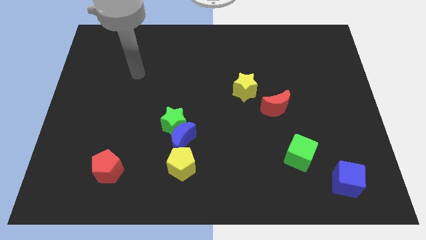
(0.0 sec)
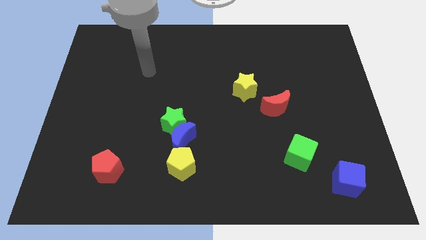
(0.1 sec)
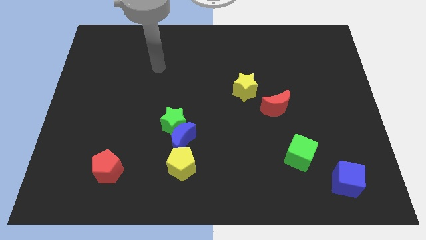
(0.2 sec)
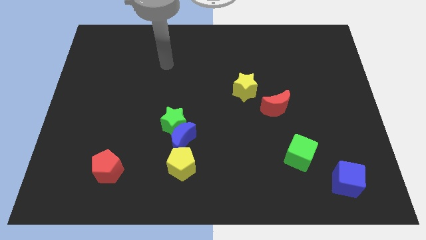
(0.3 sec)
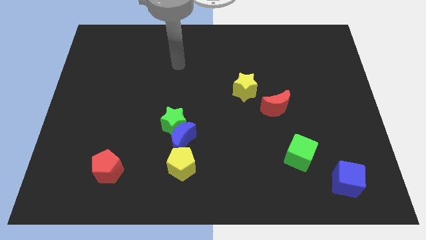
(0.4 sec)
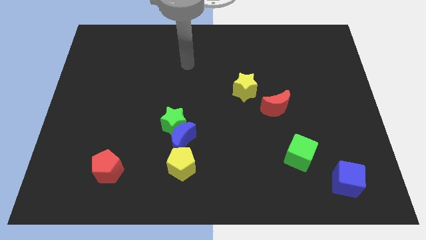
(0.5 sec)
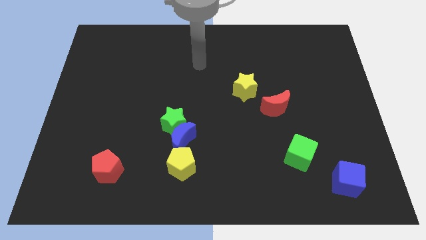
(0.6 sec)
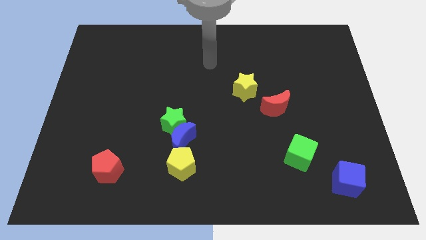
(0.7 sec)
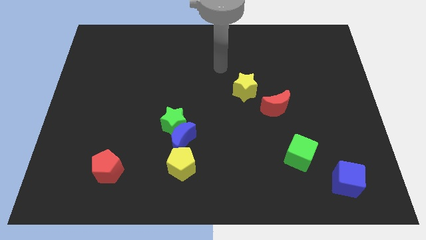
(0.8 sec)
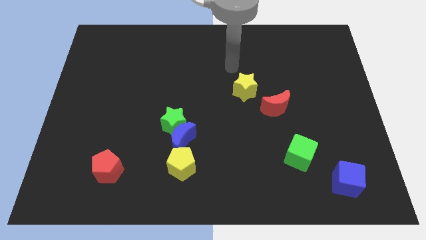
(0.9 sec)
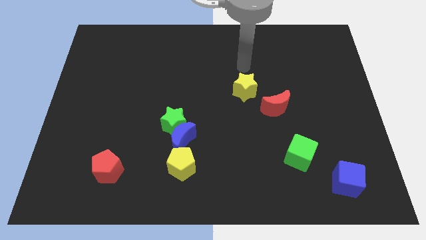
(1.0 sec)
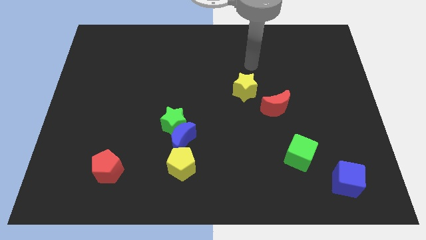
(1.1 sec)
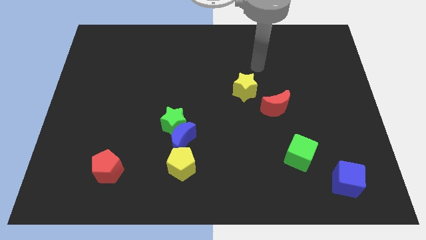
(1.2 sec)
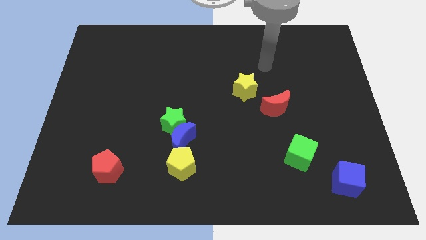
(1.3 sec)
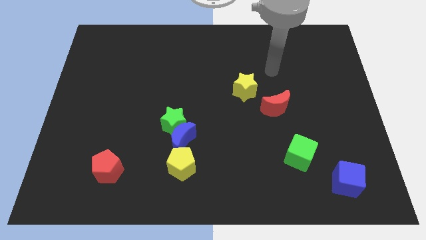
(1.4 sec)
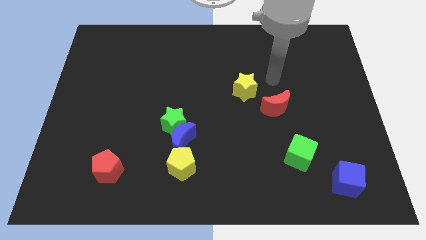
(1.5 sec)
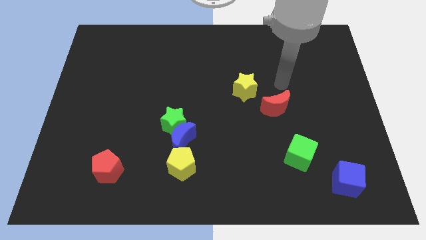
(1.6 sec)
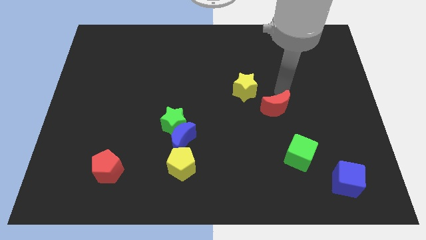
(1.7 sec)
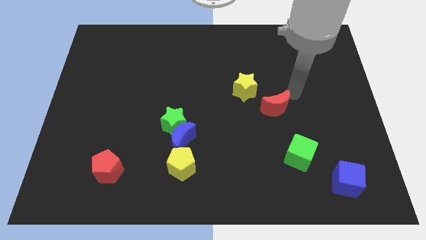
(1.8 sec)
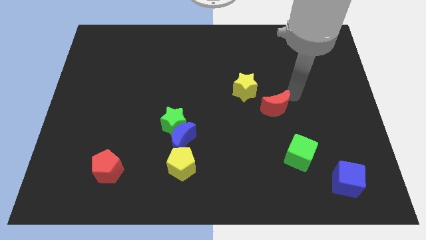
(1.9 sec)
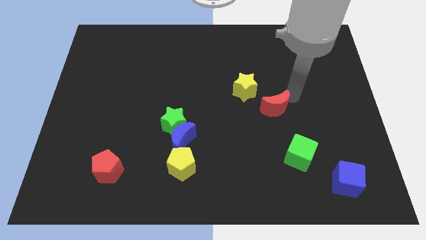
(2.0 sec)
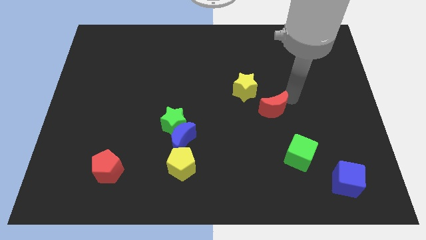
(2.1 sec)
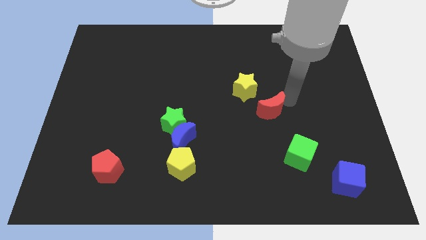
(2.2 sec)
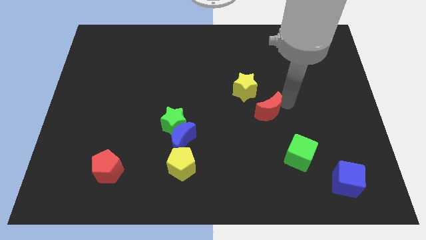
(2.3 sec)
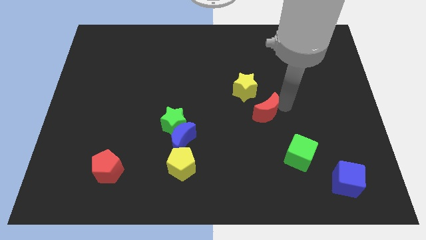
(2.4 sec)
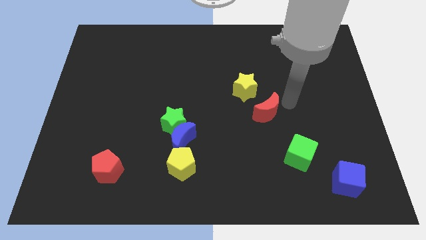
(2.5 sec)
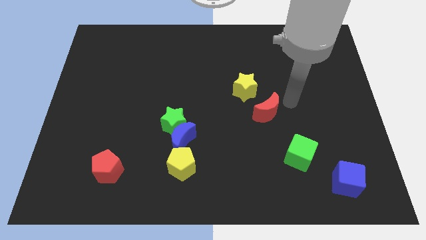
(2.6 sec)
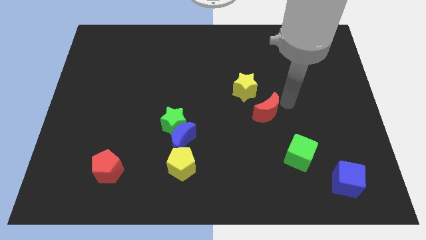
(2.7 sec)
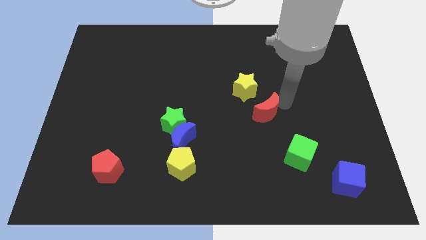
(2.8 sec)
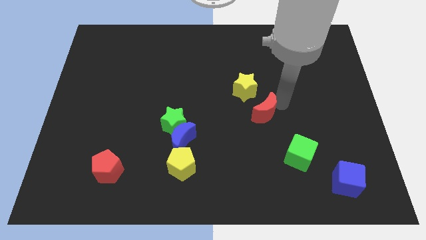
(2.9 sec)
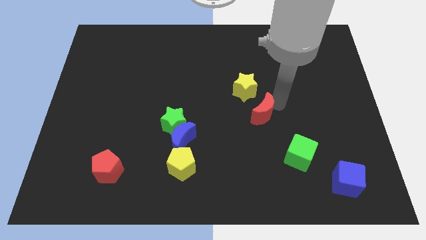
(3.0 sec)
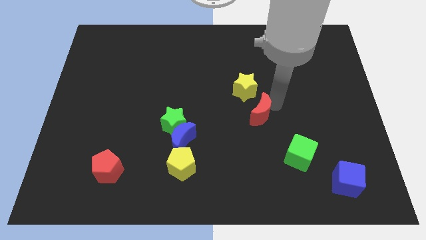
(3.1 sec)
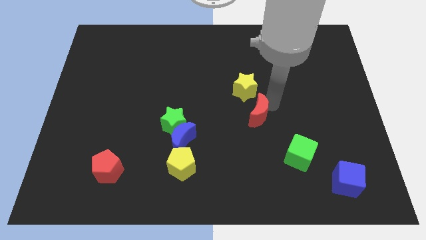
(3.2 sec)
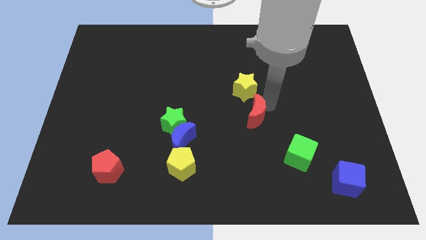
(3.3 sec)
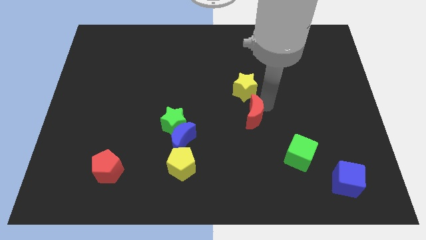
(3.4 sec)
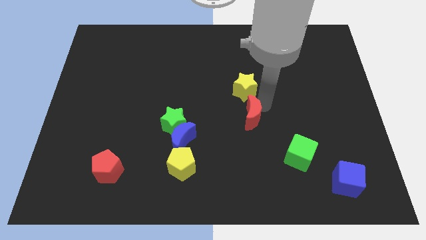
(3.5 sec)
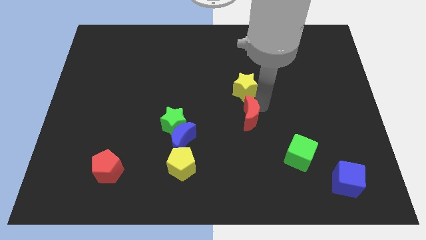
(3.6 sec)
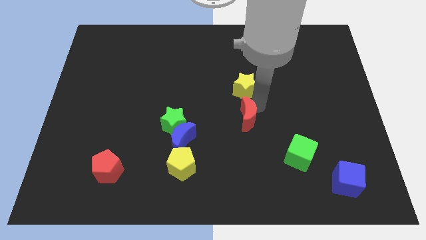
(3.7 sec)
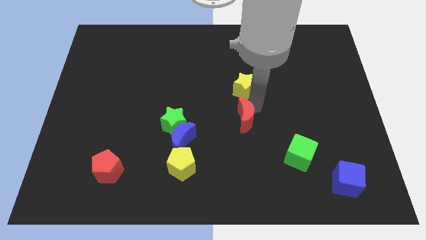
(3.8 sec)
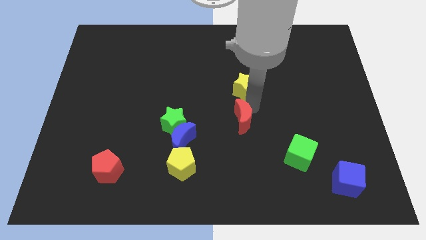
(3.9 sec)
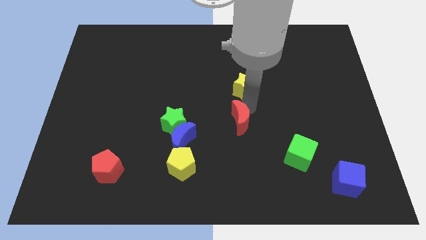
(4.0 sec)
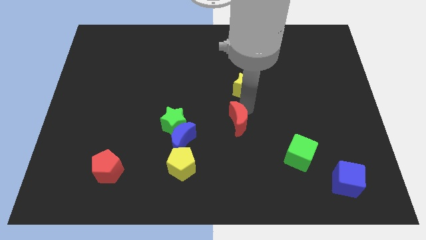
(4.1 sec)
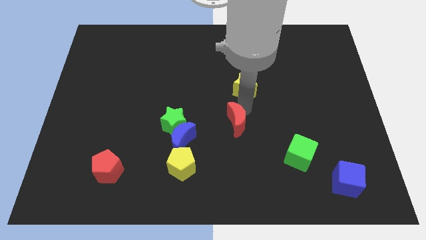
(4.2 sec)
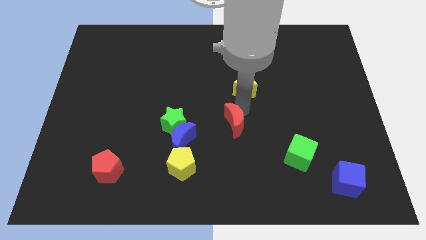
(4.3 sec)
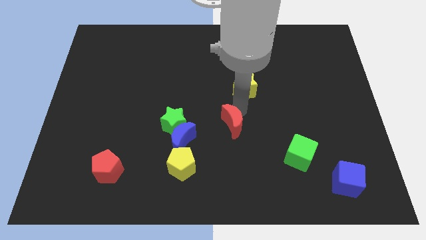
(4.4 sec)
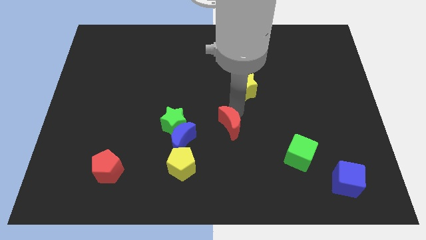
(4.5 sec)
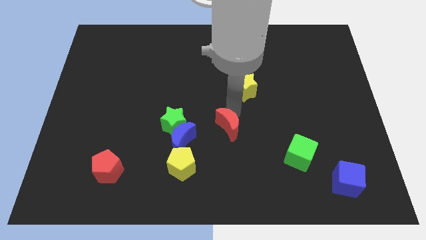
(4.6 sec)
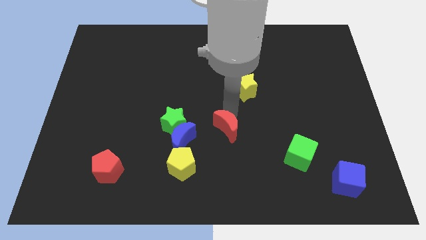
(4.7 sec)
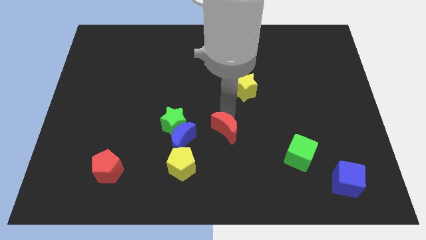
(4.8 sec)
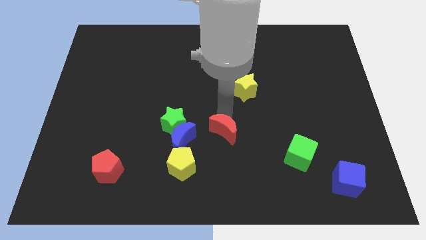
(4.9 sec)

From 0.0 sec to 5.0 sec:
slide the red moon to the top right of the yellow pentagon

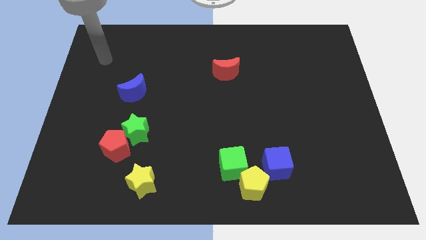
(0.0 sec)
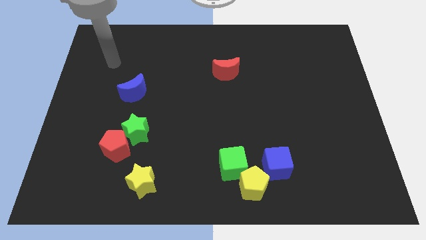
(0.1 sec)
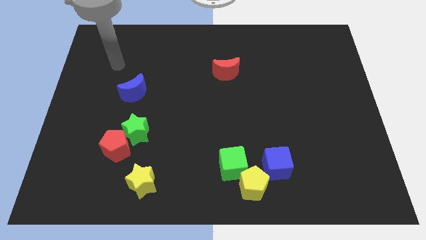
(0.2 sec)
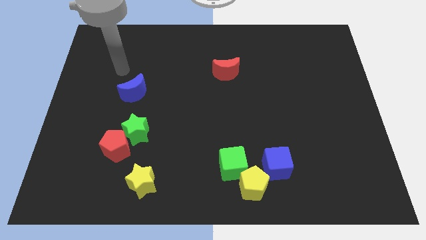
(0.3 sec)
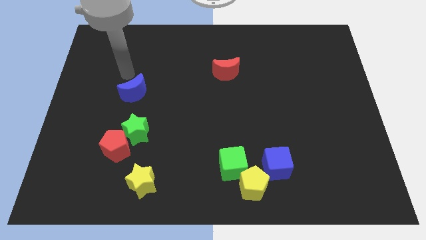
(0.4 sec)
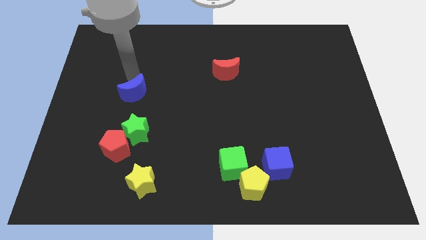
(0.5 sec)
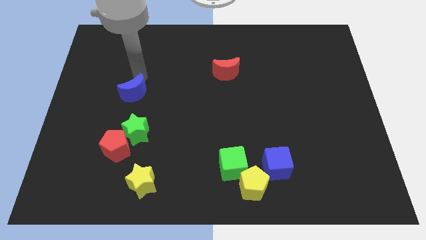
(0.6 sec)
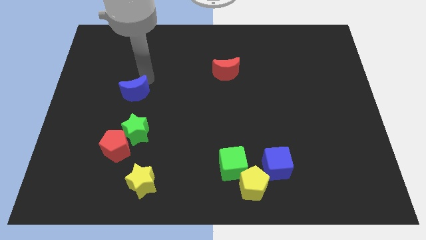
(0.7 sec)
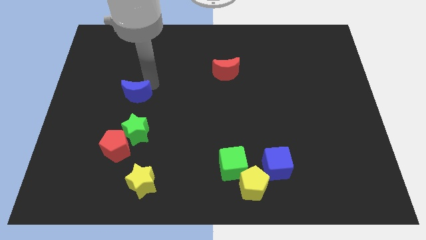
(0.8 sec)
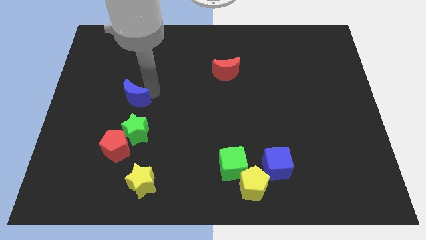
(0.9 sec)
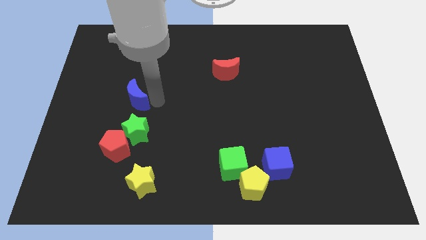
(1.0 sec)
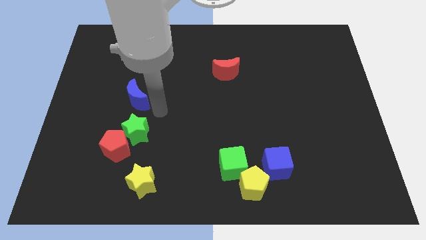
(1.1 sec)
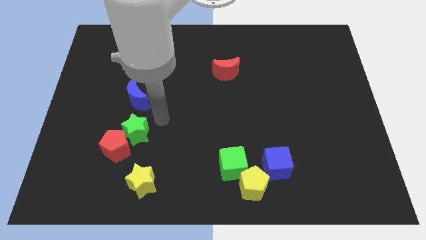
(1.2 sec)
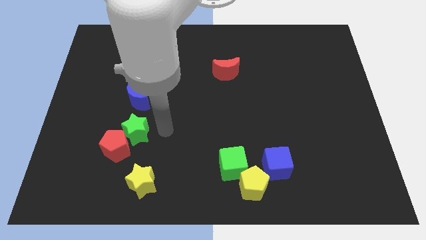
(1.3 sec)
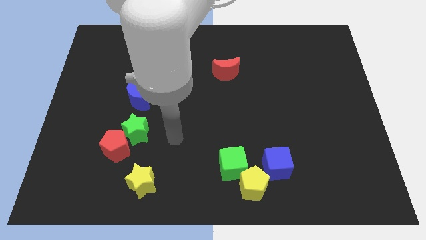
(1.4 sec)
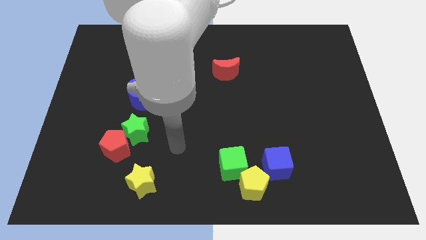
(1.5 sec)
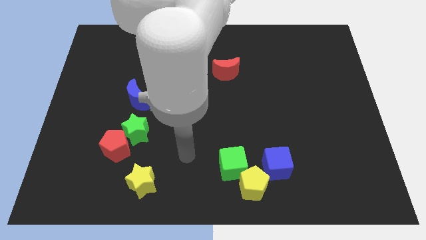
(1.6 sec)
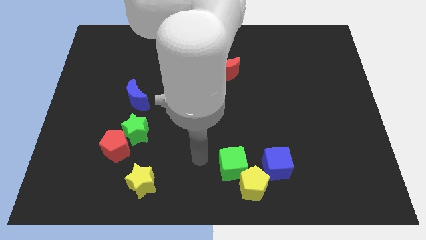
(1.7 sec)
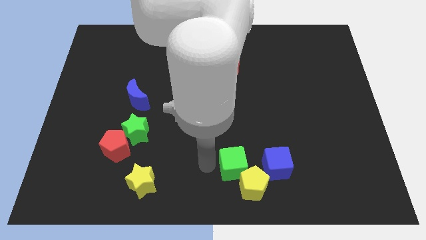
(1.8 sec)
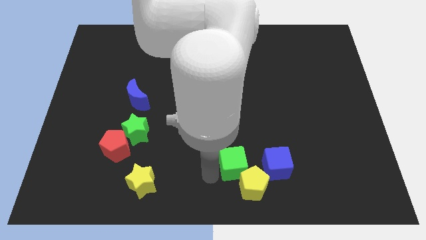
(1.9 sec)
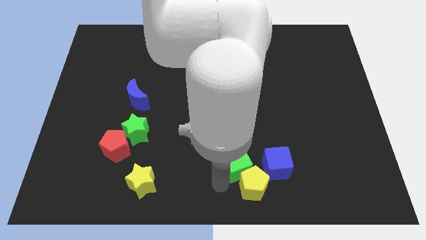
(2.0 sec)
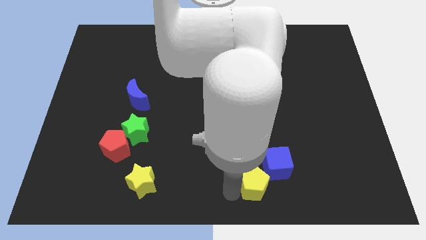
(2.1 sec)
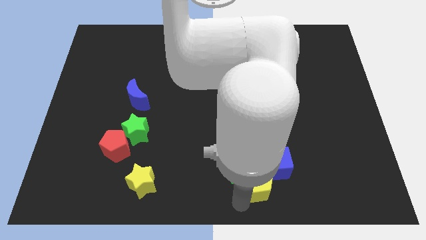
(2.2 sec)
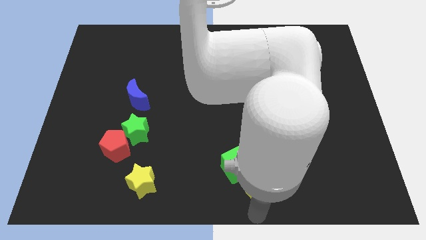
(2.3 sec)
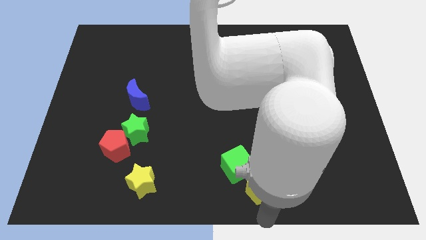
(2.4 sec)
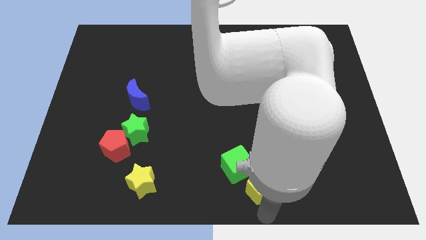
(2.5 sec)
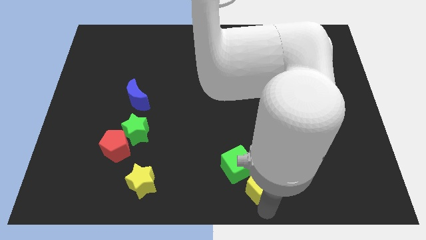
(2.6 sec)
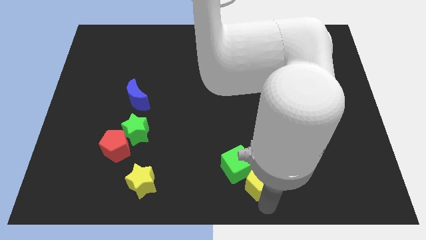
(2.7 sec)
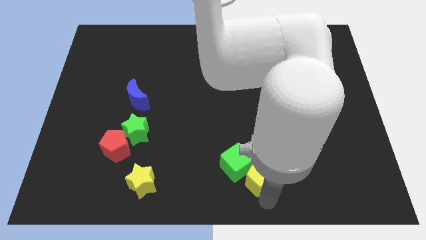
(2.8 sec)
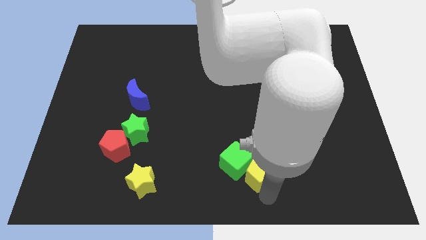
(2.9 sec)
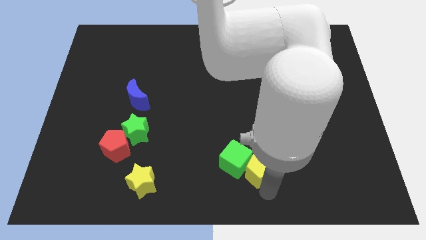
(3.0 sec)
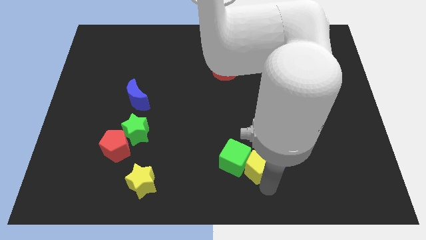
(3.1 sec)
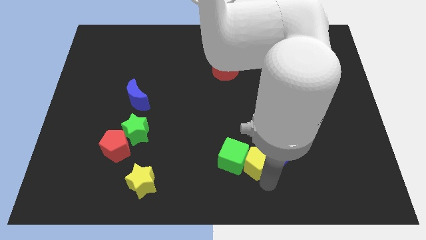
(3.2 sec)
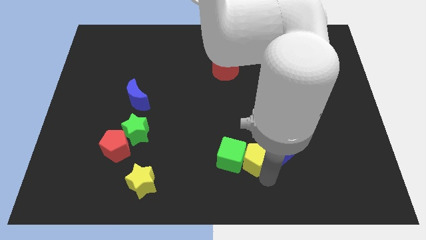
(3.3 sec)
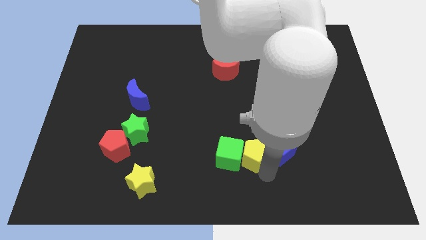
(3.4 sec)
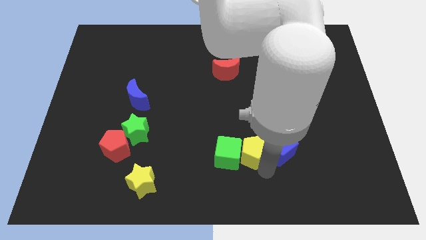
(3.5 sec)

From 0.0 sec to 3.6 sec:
push the yellow pentagon to the top left side of the blue cube
